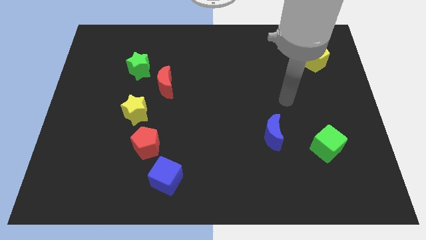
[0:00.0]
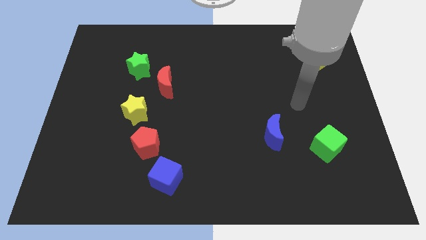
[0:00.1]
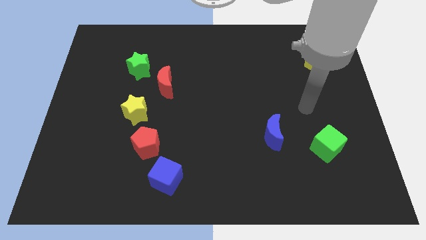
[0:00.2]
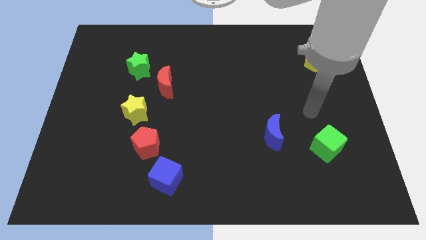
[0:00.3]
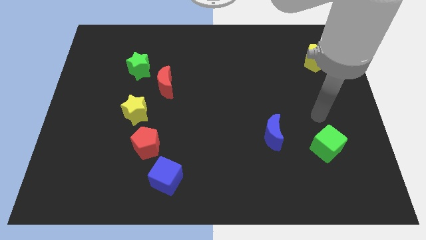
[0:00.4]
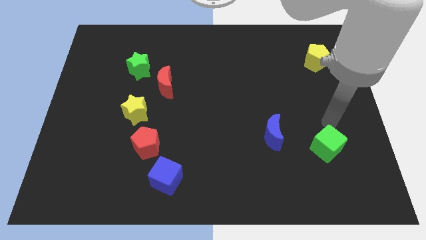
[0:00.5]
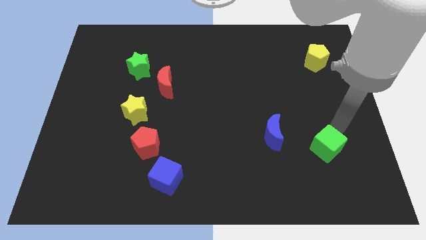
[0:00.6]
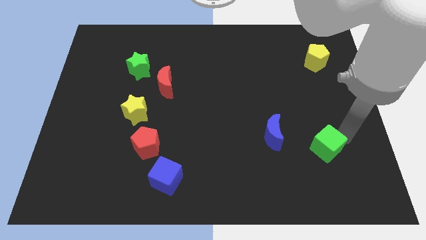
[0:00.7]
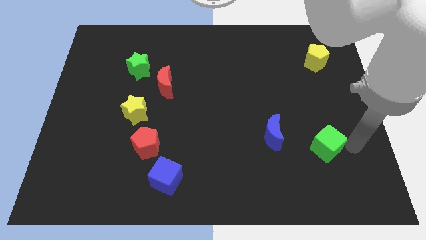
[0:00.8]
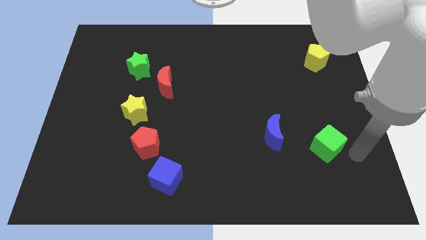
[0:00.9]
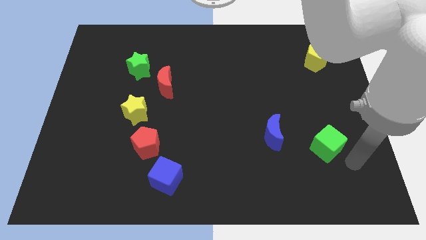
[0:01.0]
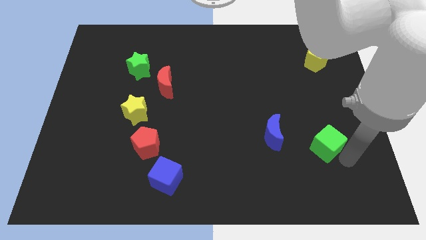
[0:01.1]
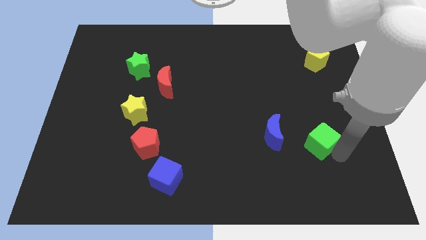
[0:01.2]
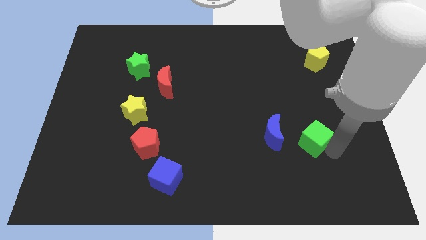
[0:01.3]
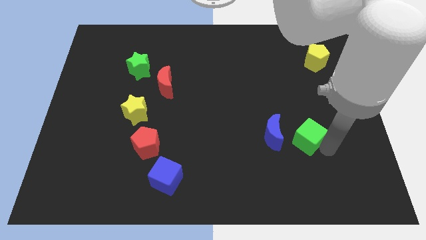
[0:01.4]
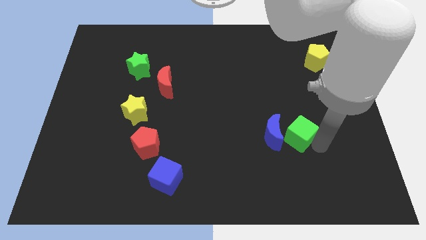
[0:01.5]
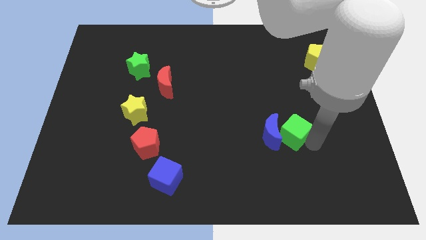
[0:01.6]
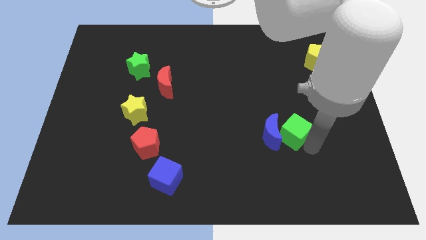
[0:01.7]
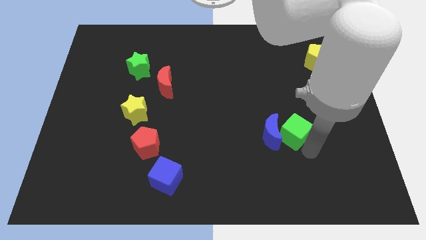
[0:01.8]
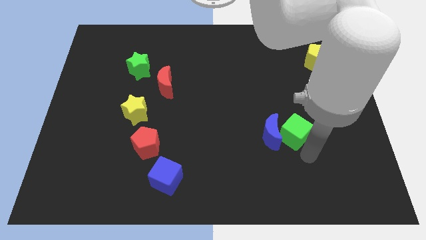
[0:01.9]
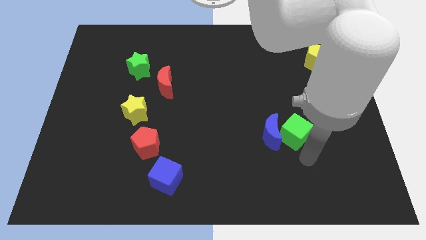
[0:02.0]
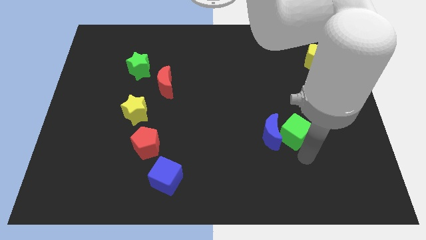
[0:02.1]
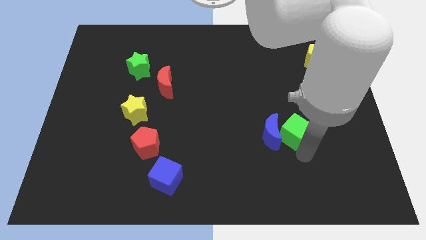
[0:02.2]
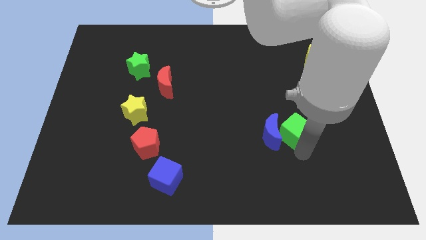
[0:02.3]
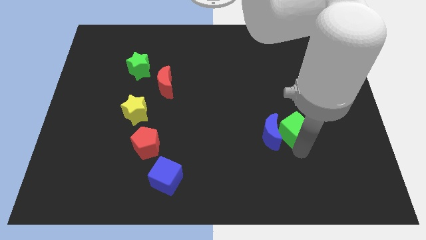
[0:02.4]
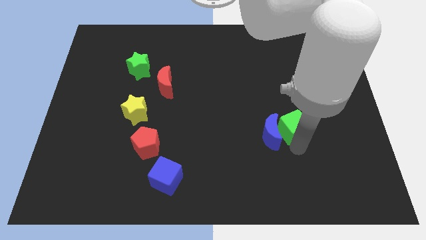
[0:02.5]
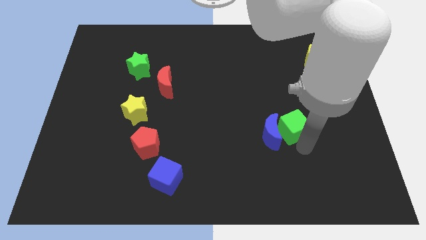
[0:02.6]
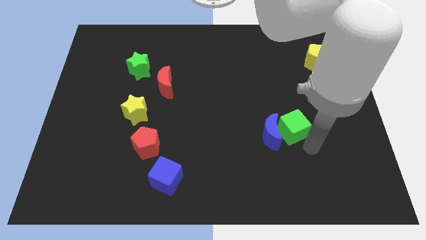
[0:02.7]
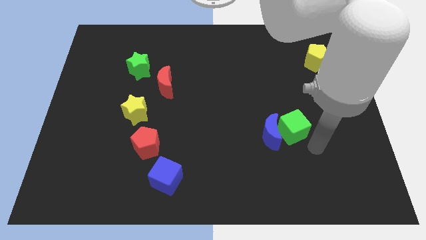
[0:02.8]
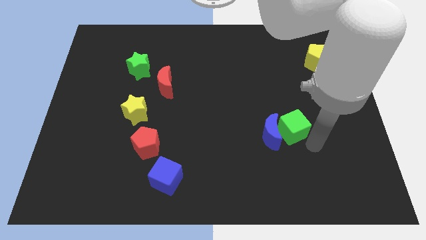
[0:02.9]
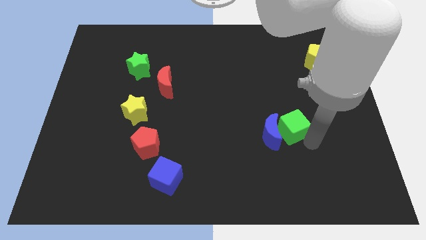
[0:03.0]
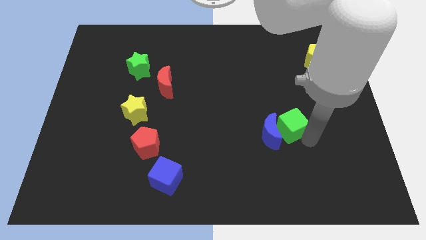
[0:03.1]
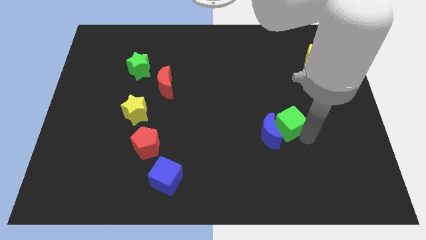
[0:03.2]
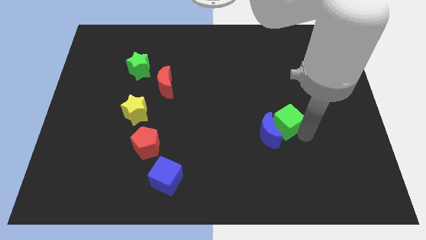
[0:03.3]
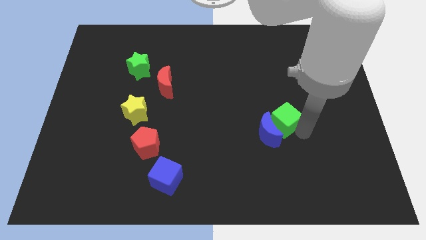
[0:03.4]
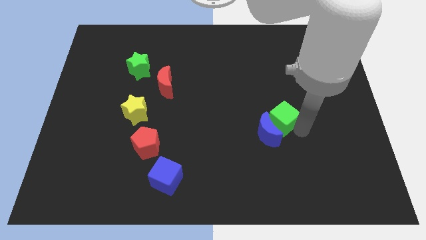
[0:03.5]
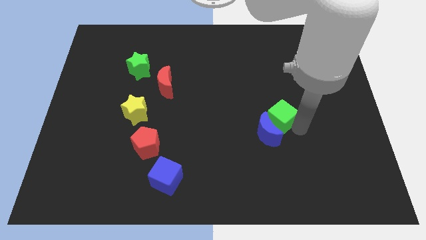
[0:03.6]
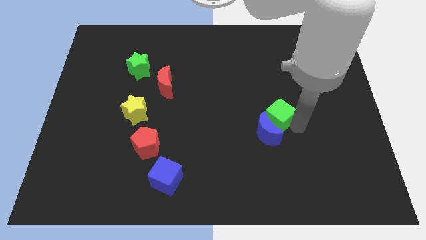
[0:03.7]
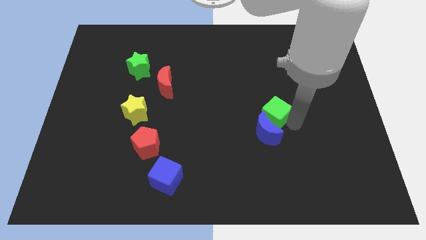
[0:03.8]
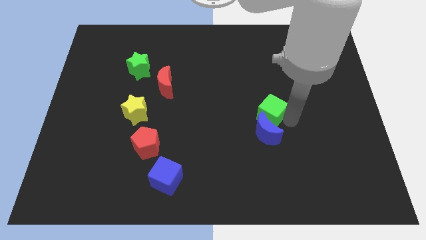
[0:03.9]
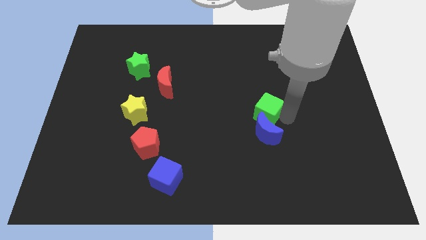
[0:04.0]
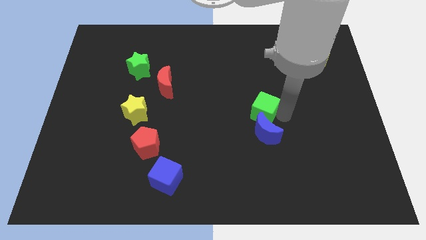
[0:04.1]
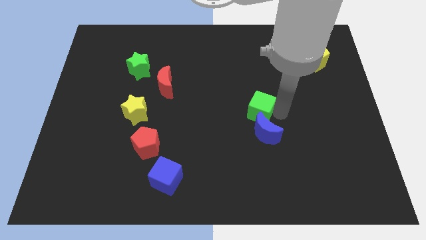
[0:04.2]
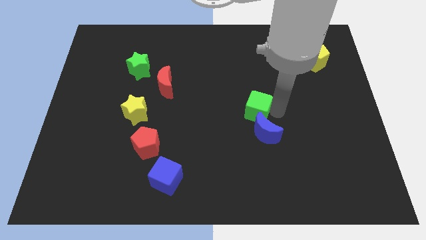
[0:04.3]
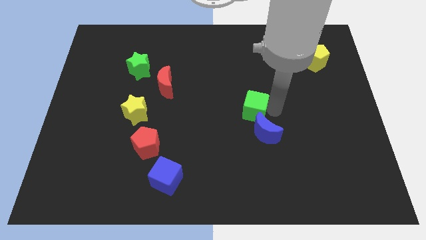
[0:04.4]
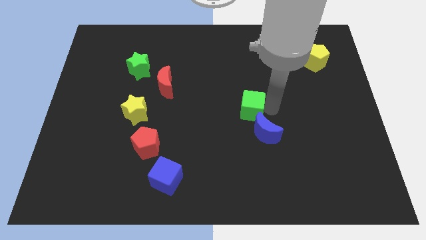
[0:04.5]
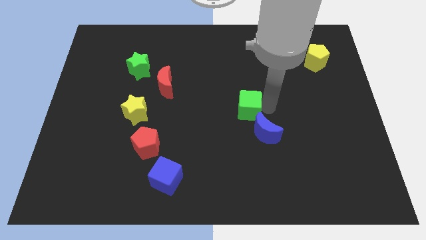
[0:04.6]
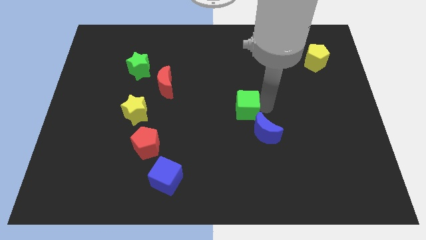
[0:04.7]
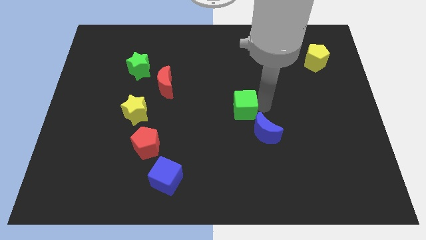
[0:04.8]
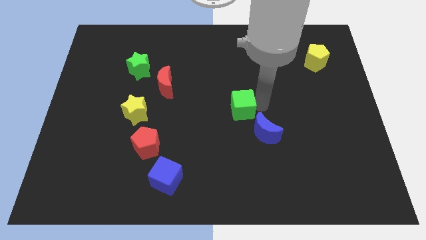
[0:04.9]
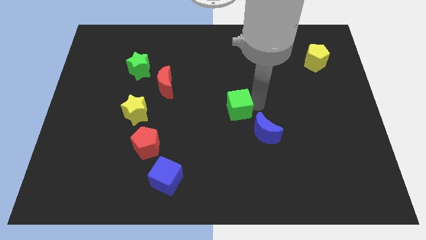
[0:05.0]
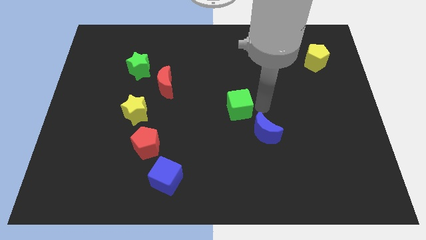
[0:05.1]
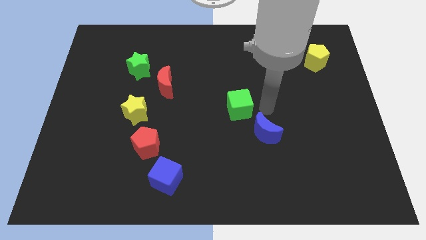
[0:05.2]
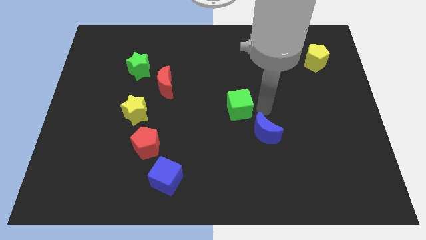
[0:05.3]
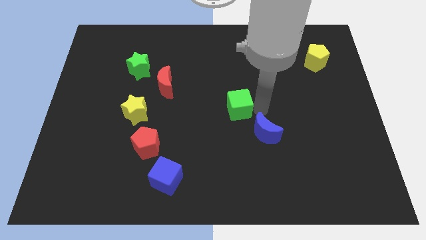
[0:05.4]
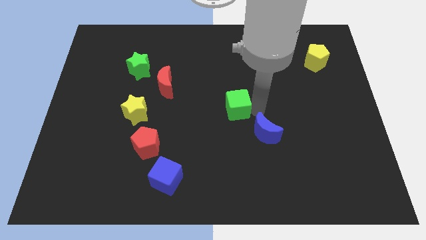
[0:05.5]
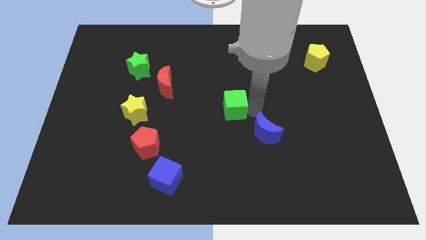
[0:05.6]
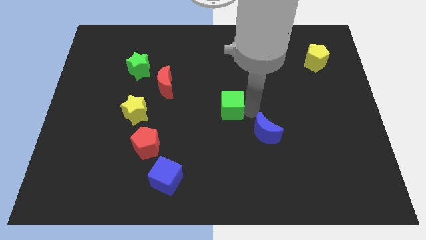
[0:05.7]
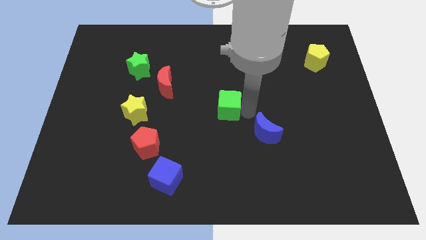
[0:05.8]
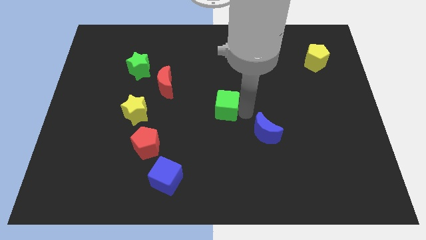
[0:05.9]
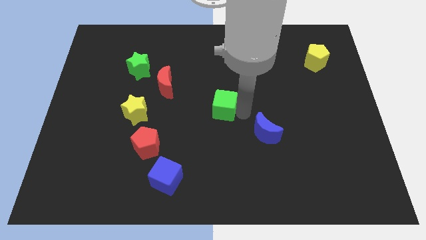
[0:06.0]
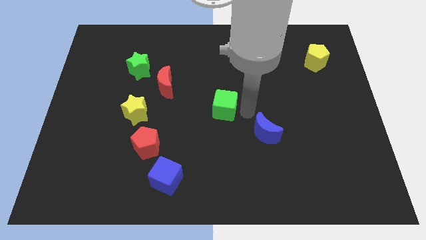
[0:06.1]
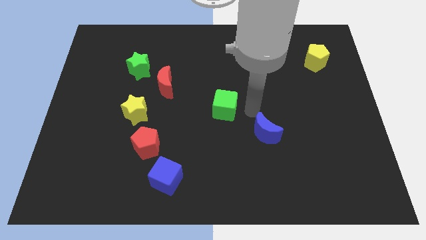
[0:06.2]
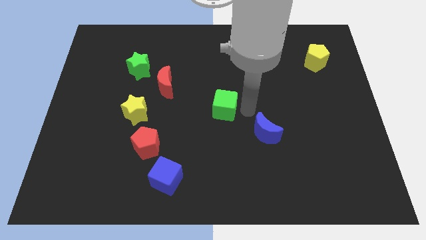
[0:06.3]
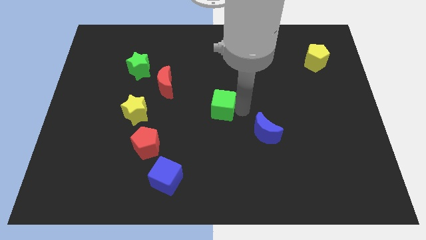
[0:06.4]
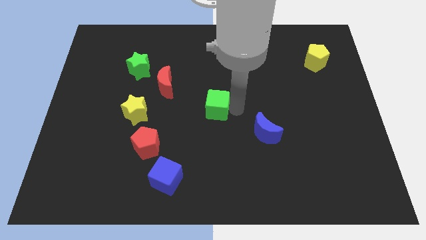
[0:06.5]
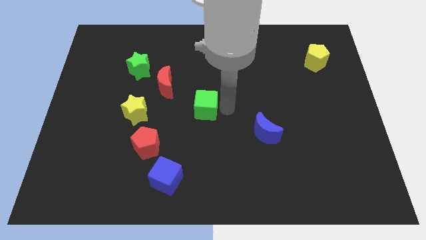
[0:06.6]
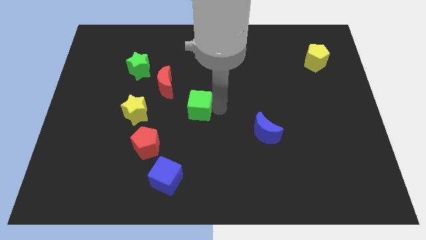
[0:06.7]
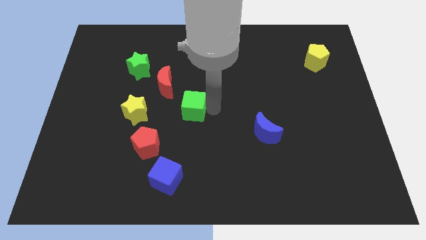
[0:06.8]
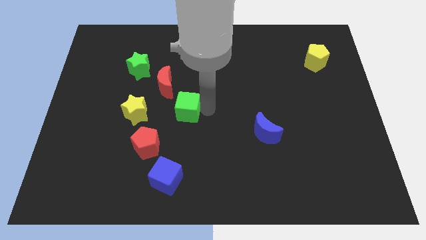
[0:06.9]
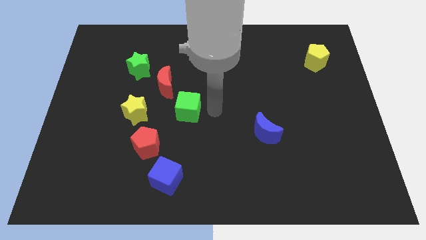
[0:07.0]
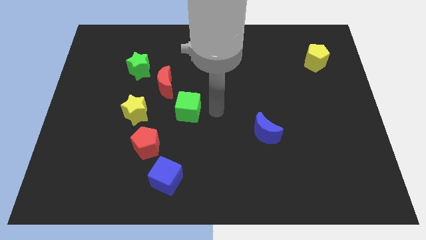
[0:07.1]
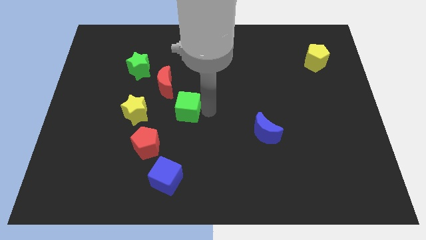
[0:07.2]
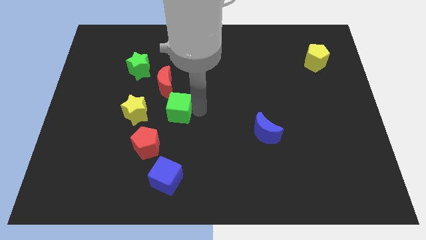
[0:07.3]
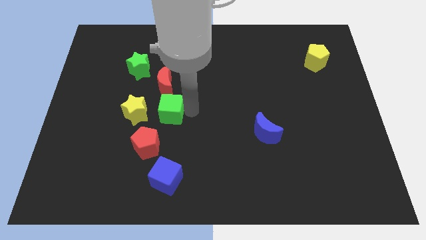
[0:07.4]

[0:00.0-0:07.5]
move the green cube to the top of the red pentagon
